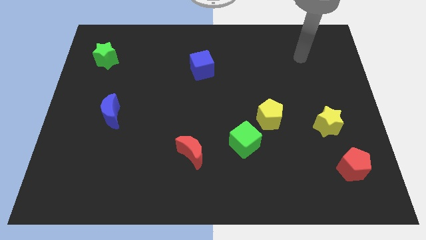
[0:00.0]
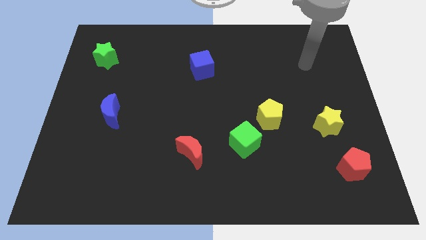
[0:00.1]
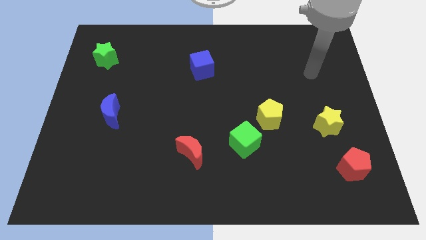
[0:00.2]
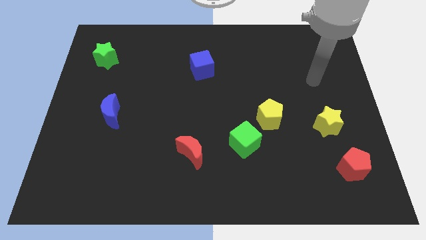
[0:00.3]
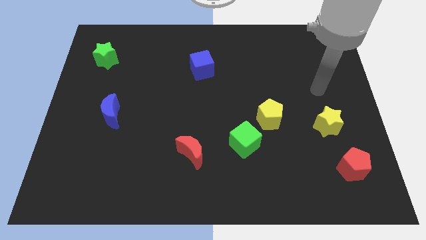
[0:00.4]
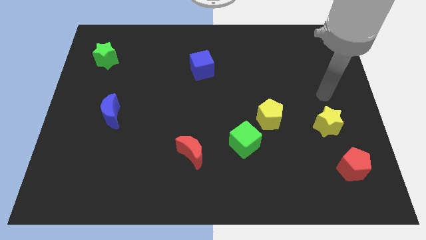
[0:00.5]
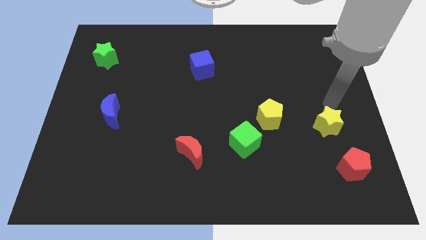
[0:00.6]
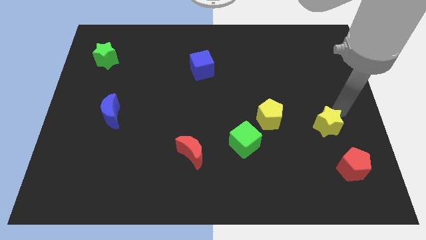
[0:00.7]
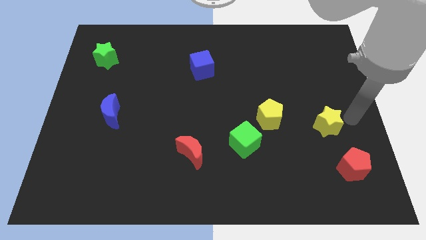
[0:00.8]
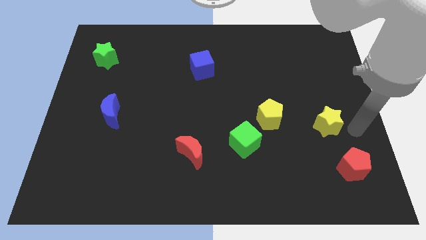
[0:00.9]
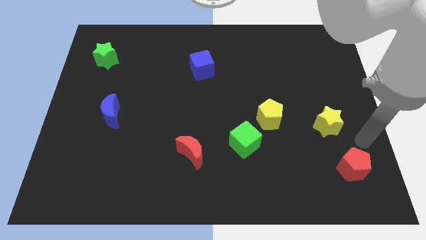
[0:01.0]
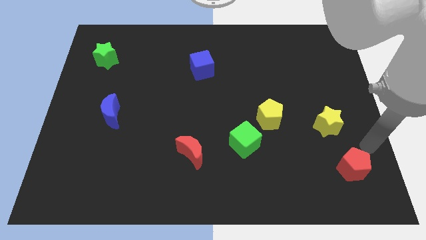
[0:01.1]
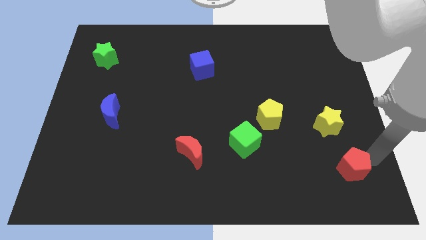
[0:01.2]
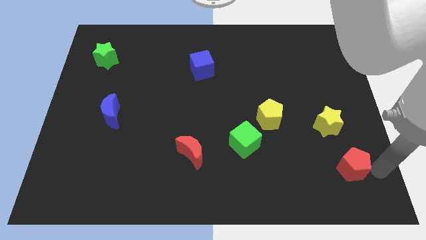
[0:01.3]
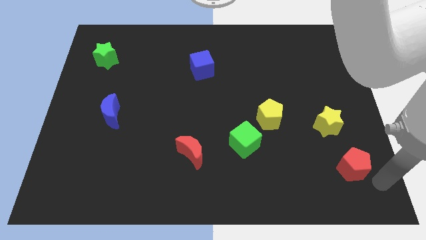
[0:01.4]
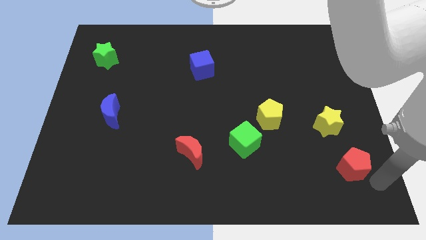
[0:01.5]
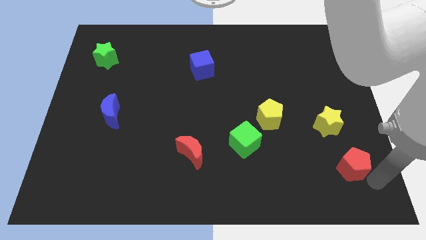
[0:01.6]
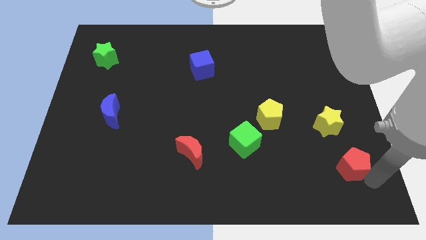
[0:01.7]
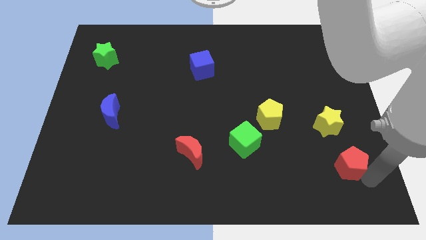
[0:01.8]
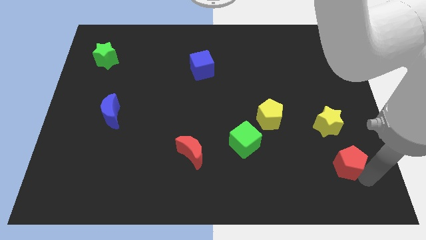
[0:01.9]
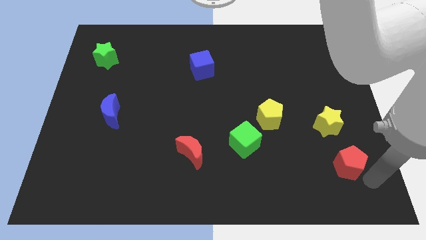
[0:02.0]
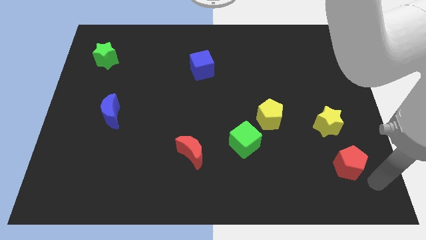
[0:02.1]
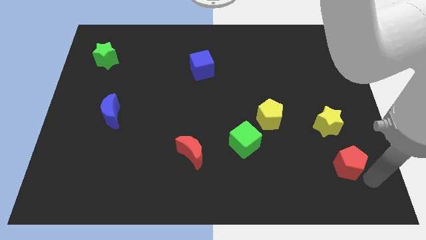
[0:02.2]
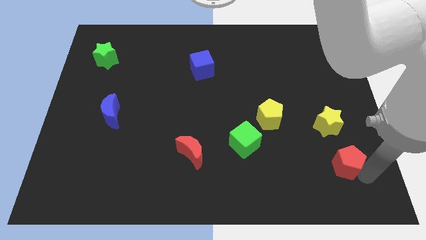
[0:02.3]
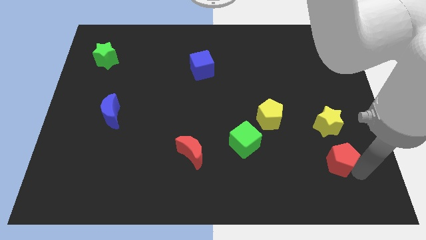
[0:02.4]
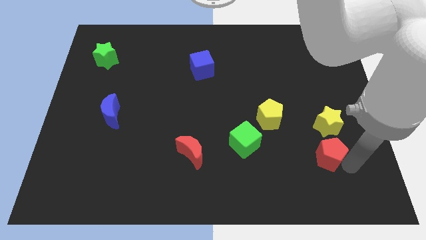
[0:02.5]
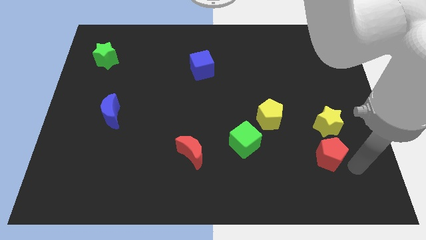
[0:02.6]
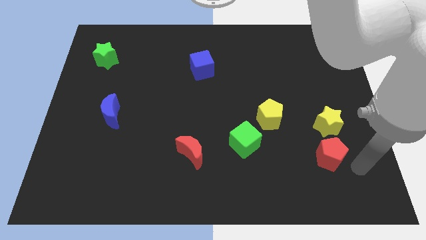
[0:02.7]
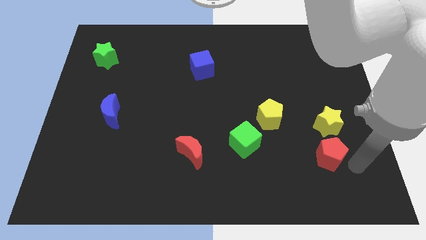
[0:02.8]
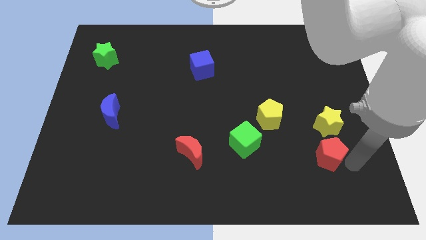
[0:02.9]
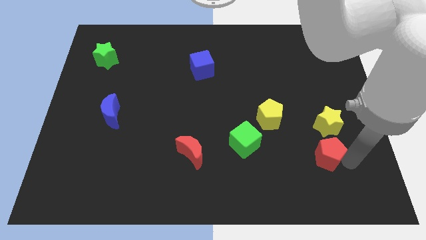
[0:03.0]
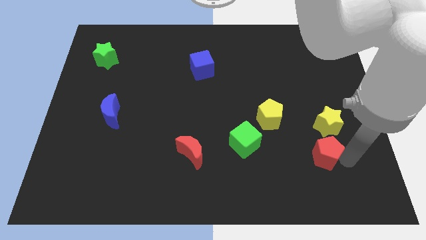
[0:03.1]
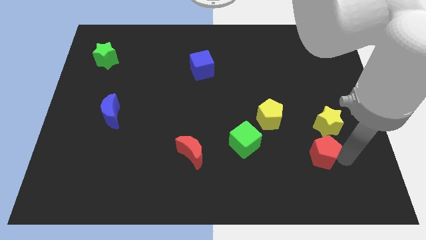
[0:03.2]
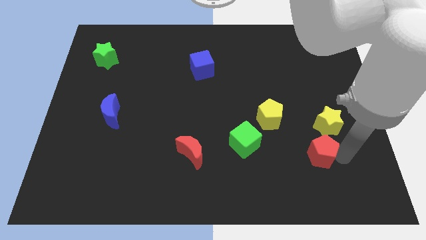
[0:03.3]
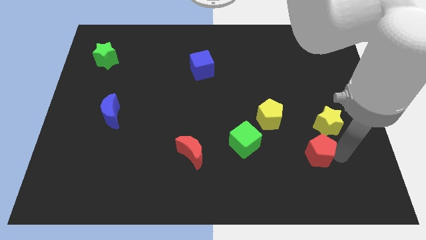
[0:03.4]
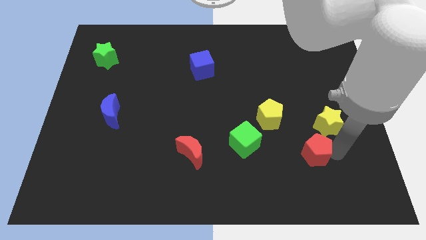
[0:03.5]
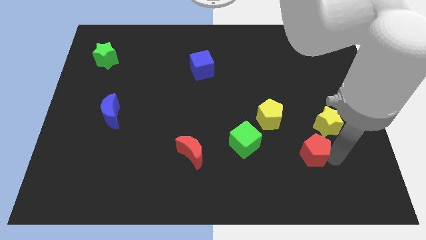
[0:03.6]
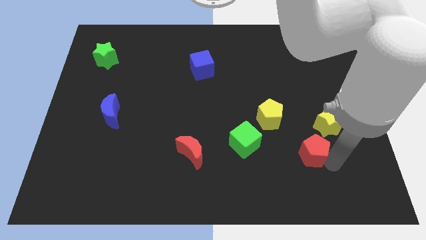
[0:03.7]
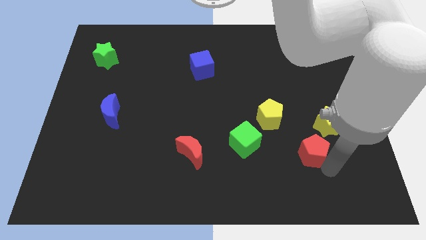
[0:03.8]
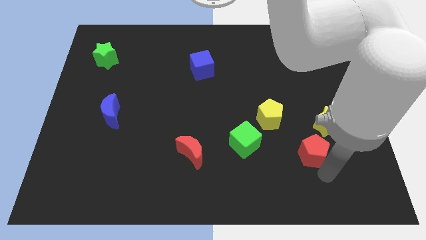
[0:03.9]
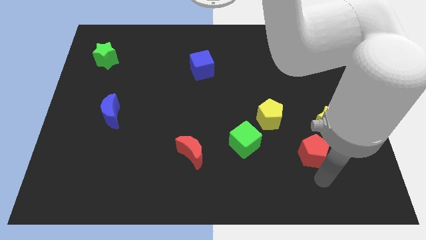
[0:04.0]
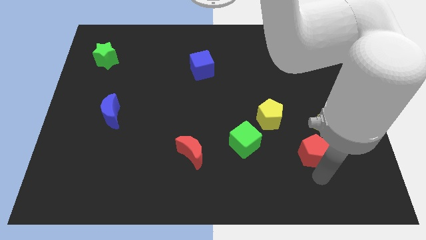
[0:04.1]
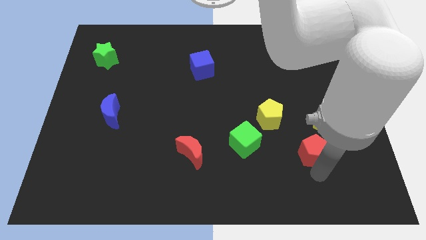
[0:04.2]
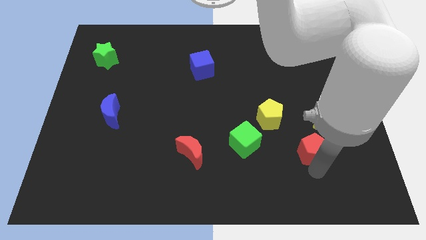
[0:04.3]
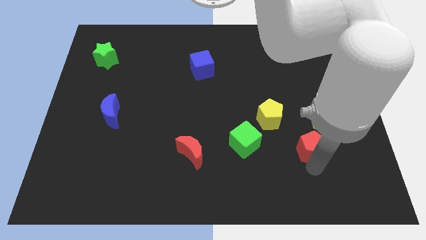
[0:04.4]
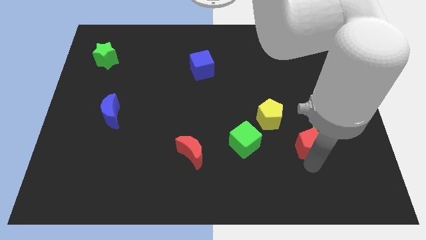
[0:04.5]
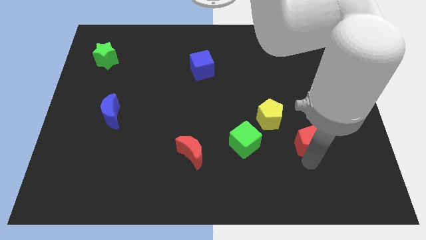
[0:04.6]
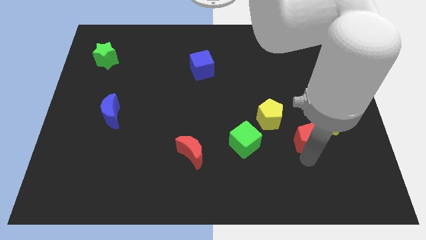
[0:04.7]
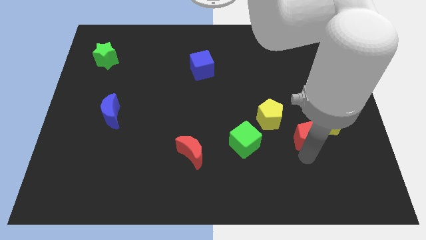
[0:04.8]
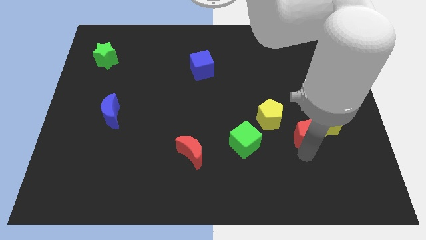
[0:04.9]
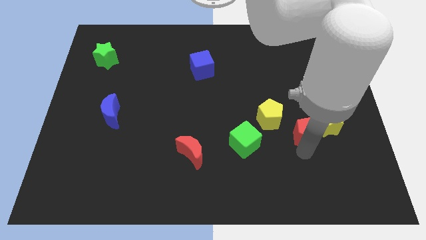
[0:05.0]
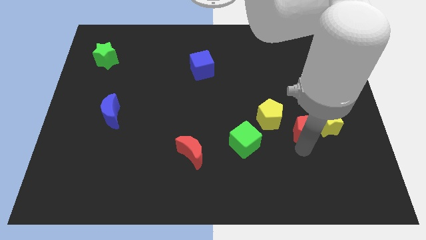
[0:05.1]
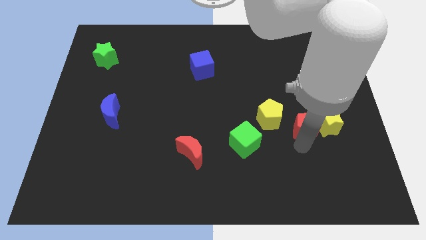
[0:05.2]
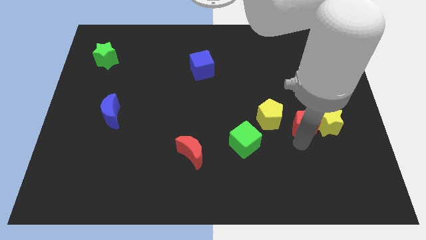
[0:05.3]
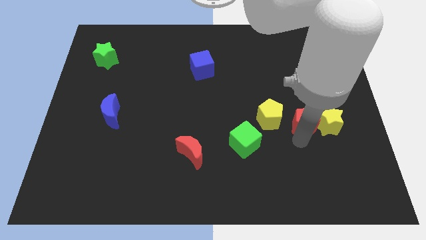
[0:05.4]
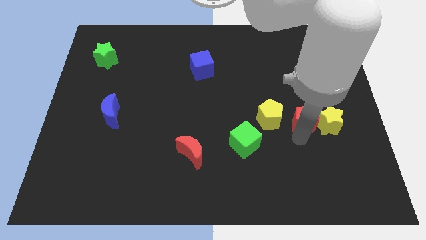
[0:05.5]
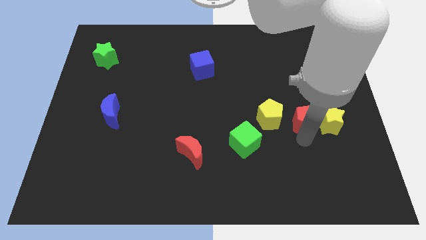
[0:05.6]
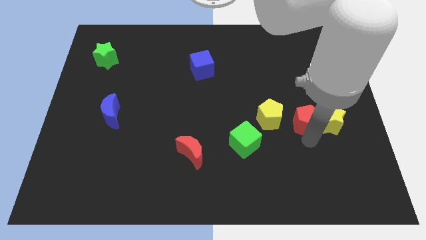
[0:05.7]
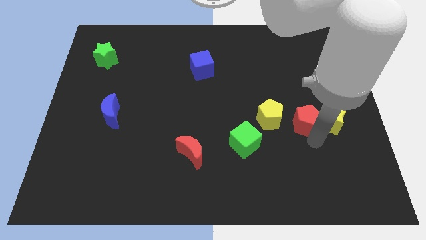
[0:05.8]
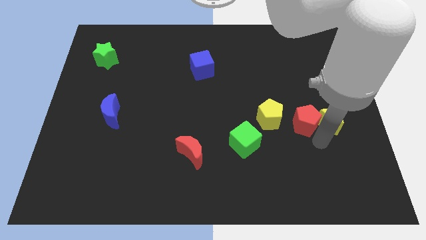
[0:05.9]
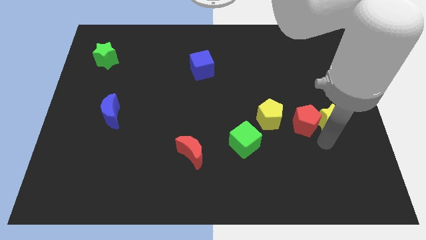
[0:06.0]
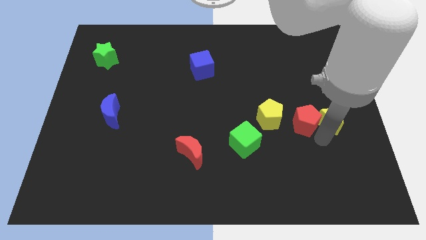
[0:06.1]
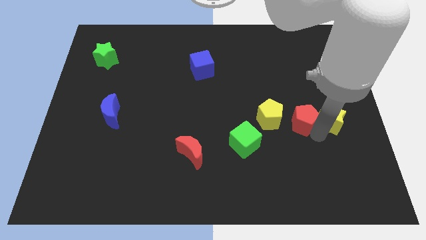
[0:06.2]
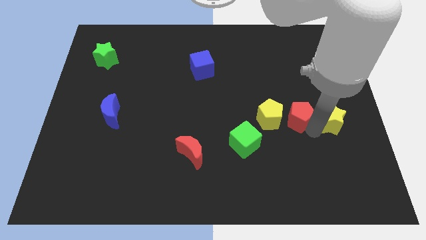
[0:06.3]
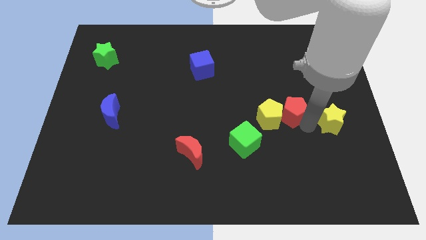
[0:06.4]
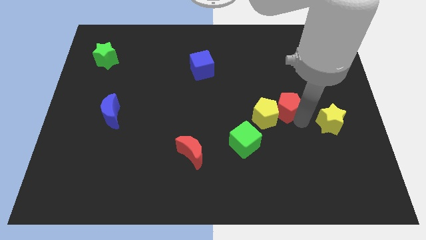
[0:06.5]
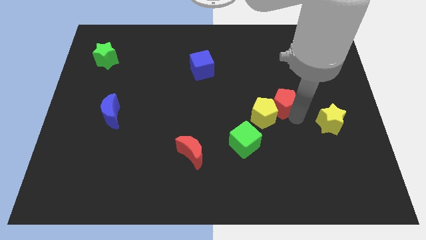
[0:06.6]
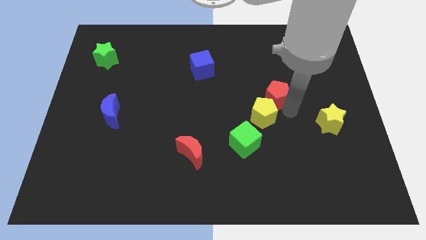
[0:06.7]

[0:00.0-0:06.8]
slide the red pentagon to the top of the yellow pentagon

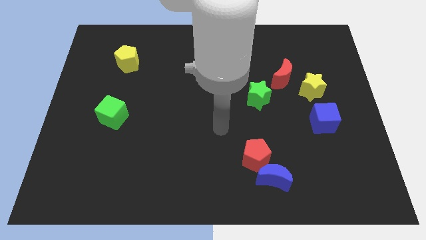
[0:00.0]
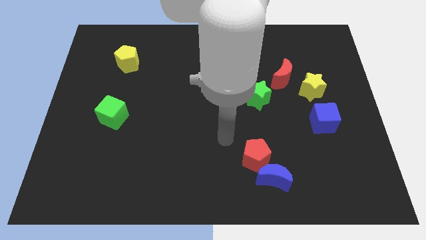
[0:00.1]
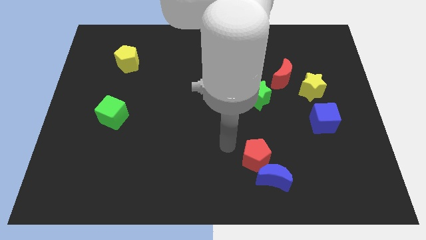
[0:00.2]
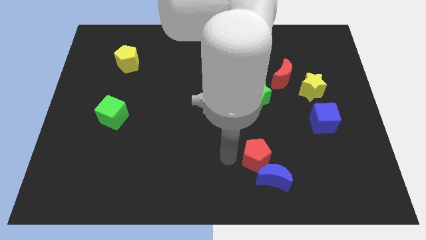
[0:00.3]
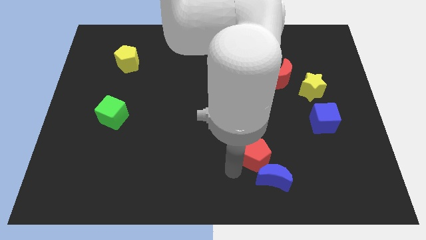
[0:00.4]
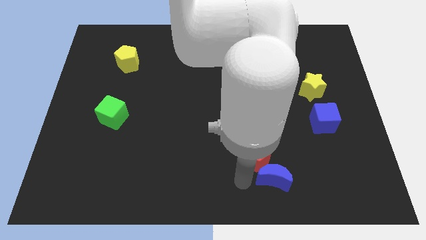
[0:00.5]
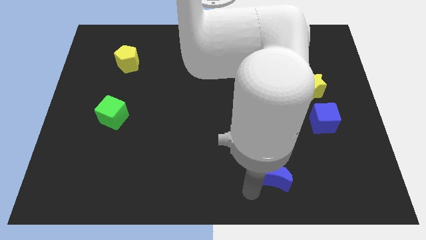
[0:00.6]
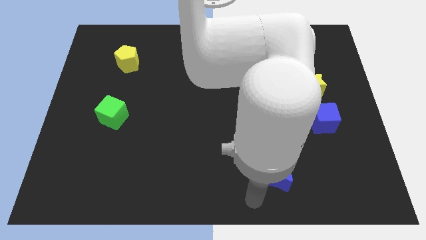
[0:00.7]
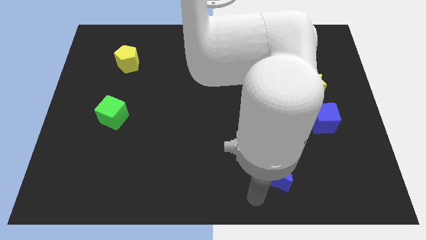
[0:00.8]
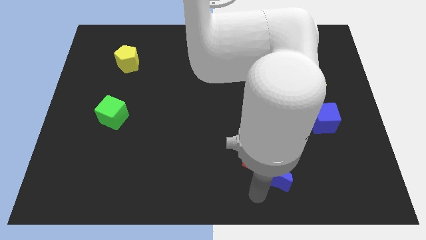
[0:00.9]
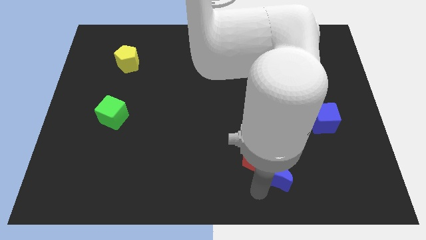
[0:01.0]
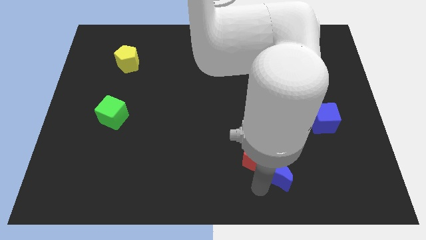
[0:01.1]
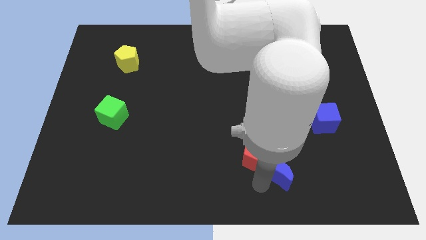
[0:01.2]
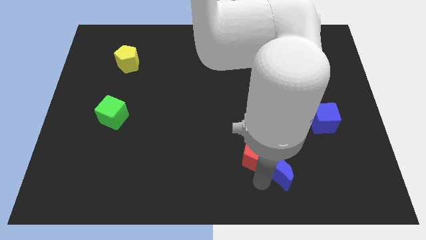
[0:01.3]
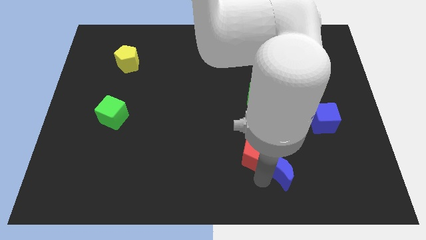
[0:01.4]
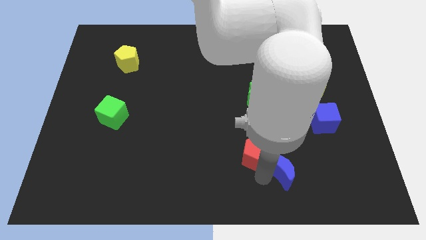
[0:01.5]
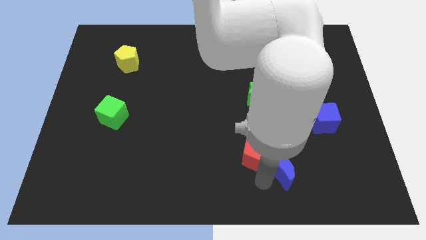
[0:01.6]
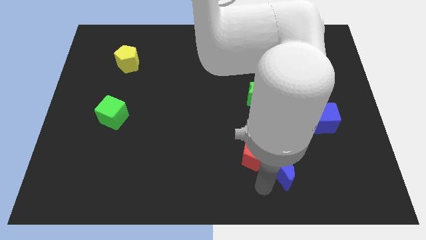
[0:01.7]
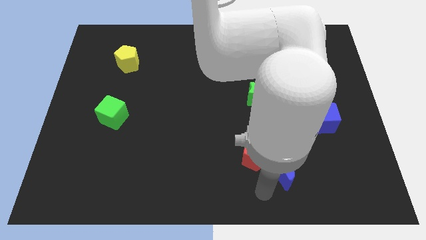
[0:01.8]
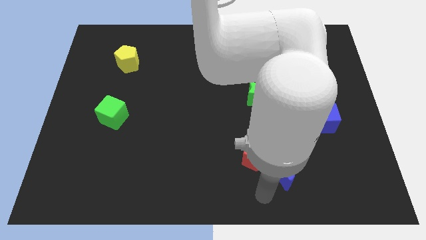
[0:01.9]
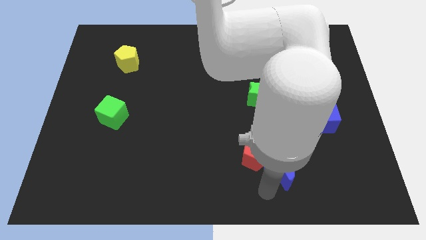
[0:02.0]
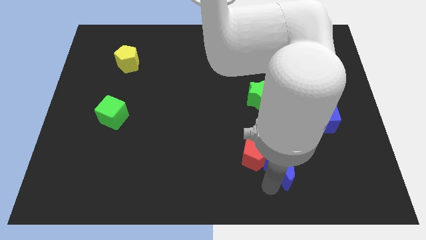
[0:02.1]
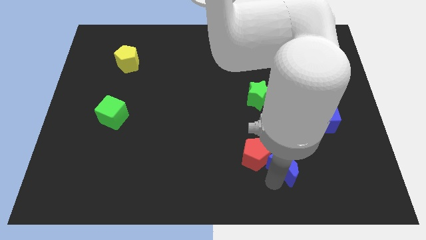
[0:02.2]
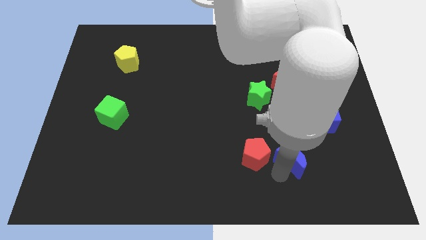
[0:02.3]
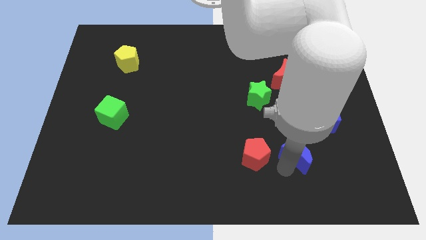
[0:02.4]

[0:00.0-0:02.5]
push the blue moon diagonally down and to the left of the blue cube
